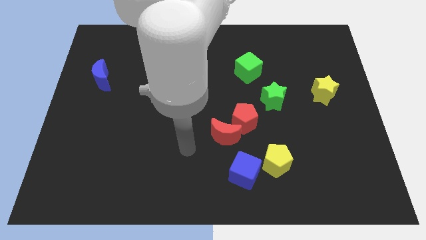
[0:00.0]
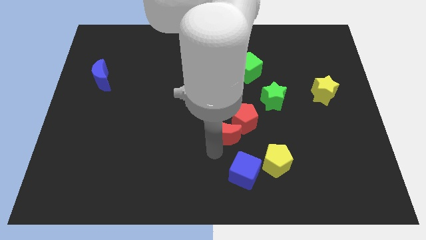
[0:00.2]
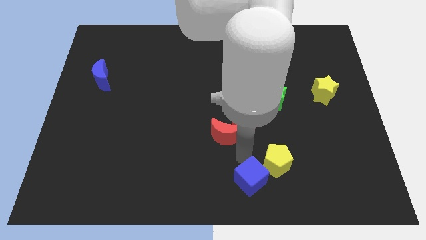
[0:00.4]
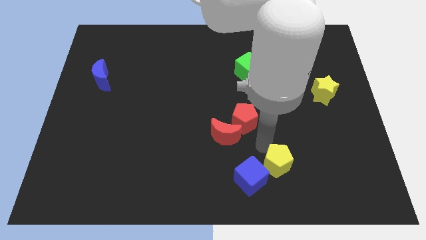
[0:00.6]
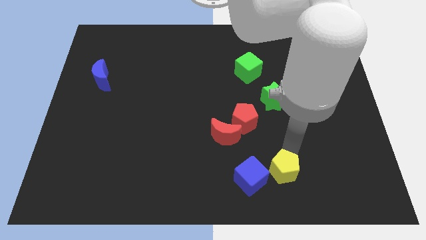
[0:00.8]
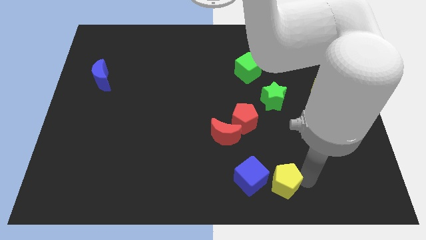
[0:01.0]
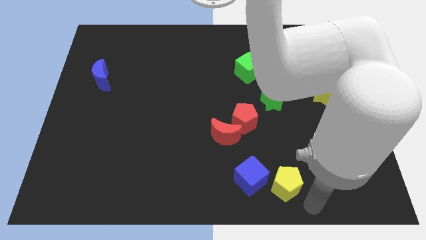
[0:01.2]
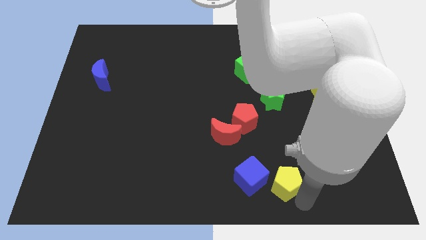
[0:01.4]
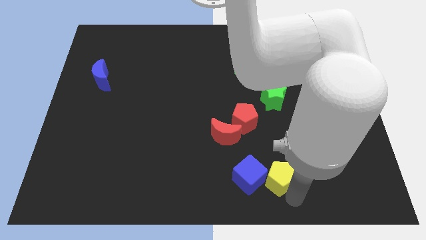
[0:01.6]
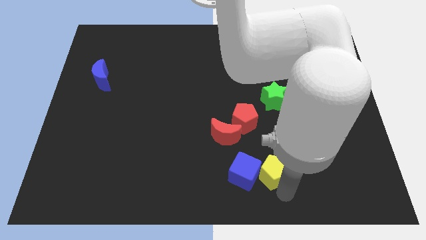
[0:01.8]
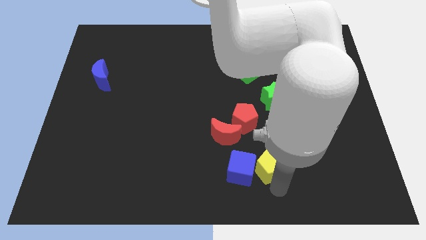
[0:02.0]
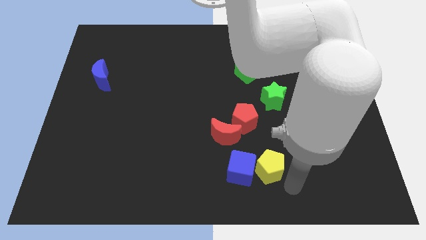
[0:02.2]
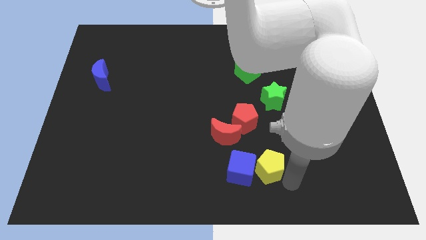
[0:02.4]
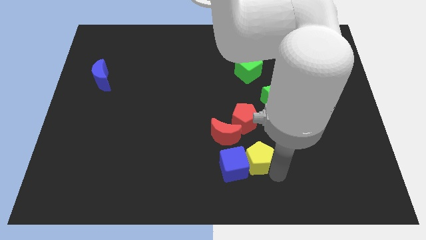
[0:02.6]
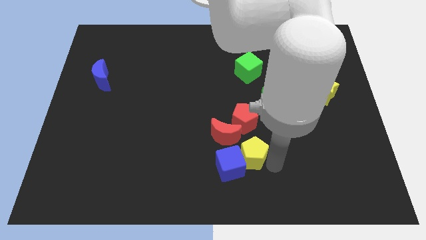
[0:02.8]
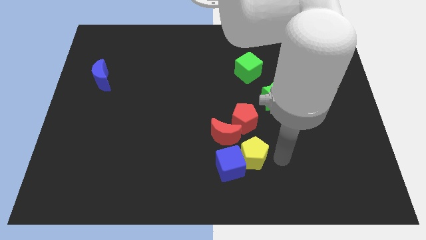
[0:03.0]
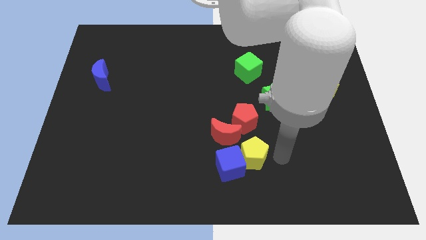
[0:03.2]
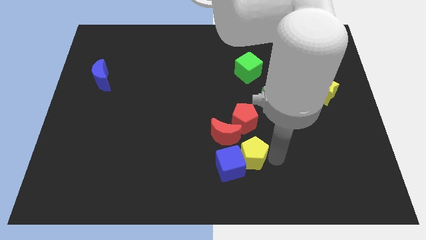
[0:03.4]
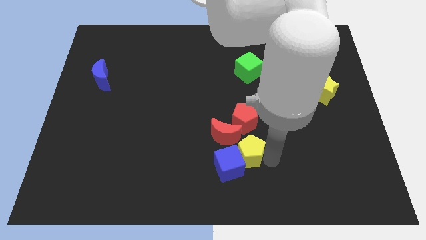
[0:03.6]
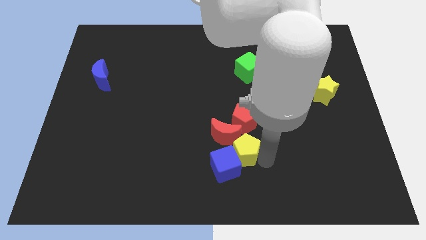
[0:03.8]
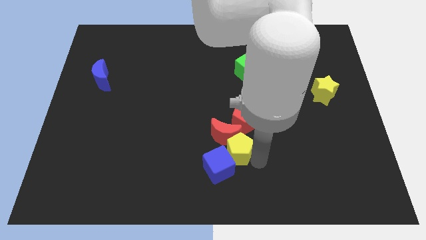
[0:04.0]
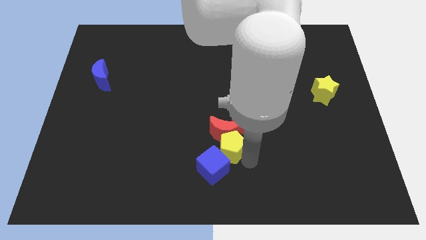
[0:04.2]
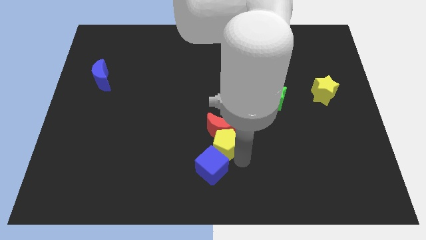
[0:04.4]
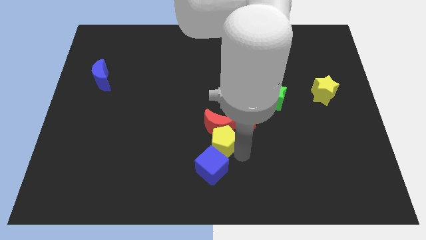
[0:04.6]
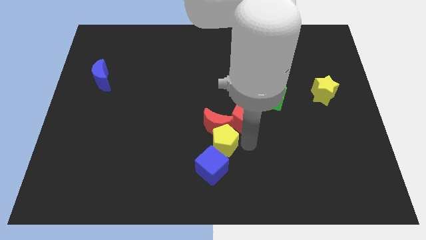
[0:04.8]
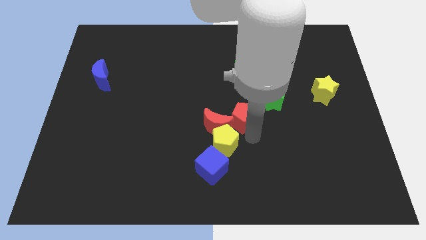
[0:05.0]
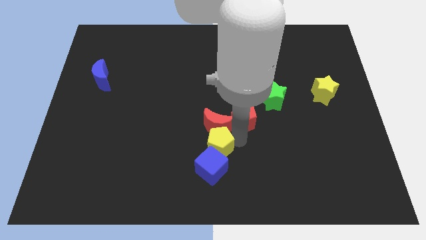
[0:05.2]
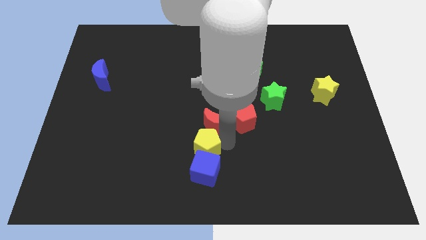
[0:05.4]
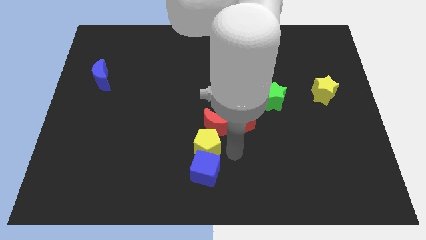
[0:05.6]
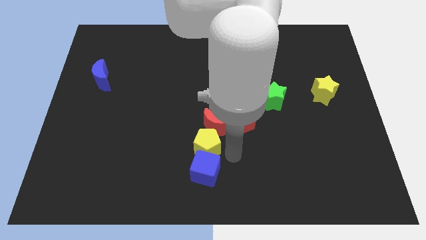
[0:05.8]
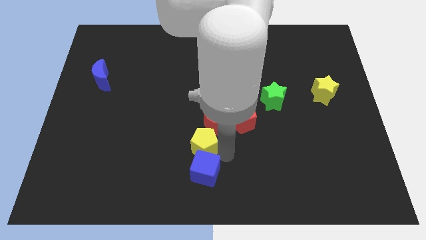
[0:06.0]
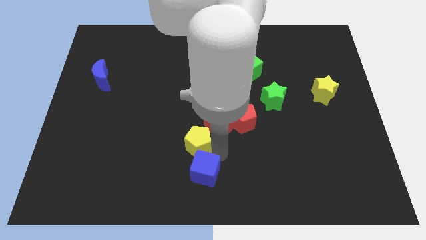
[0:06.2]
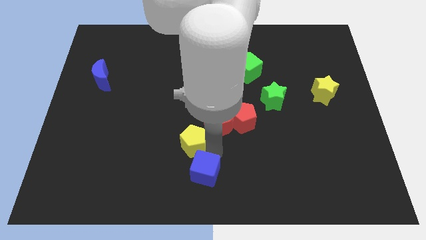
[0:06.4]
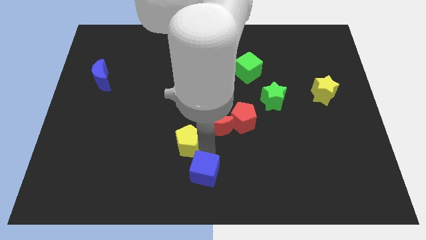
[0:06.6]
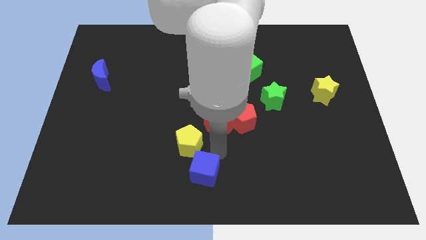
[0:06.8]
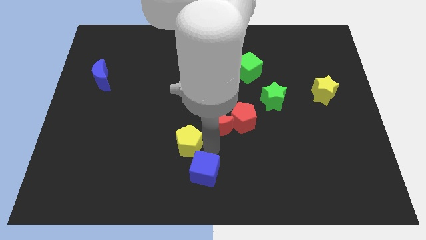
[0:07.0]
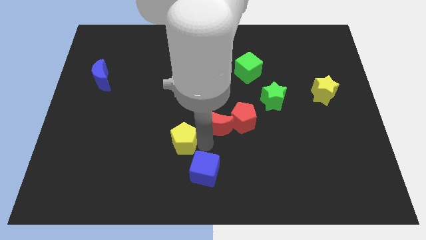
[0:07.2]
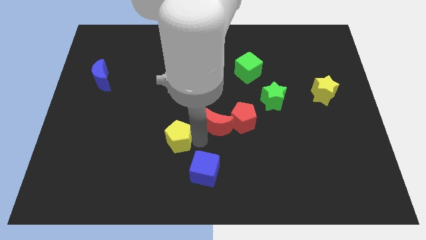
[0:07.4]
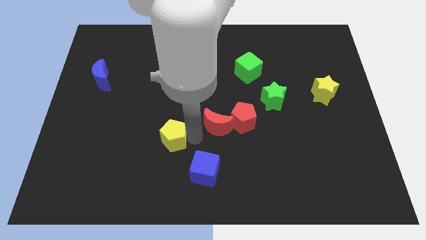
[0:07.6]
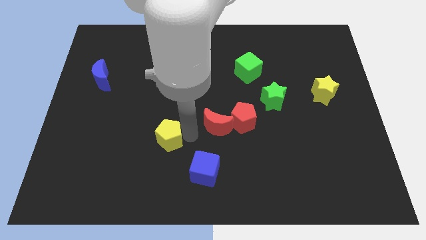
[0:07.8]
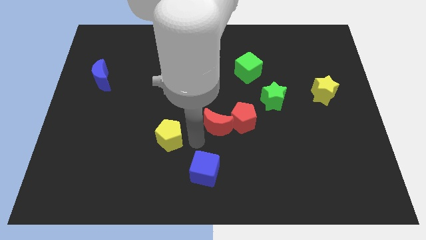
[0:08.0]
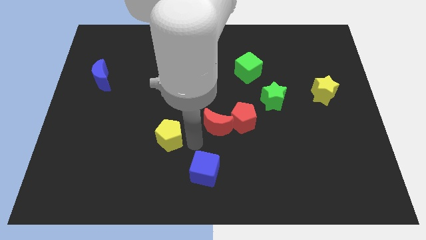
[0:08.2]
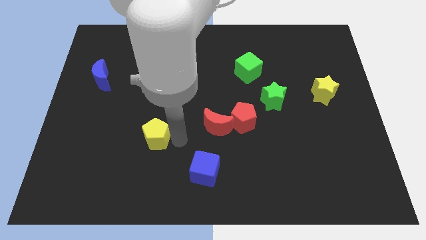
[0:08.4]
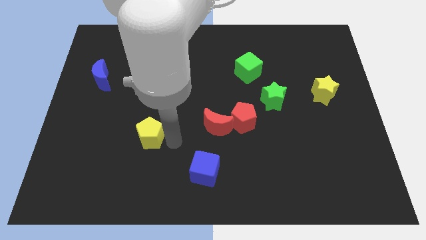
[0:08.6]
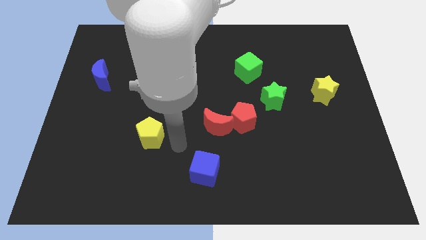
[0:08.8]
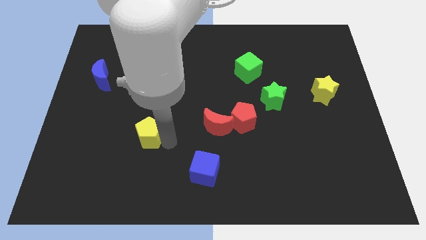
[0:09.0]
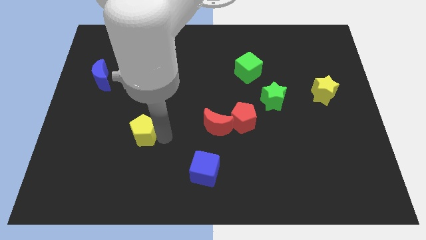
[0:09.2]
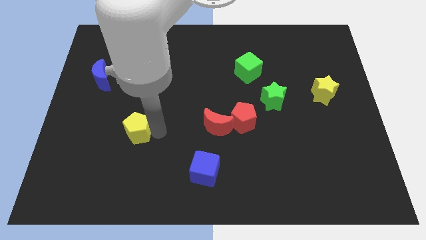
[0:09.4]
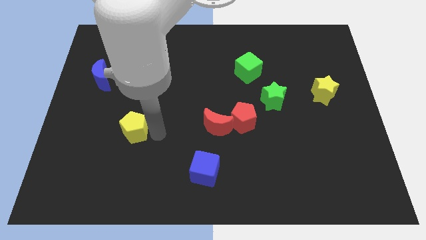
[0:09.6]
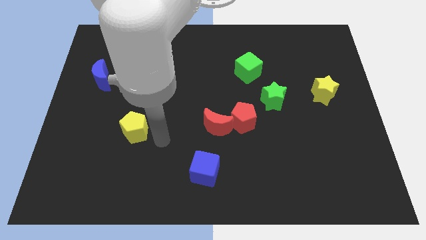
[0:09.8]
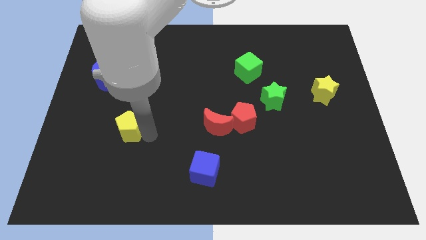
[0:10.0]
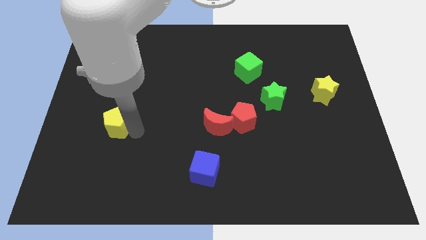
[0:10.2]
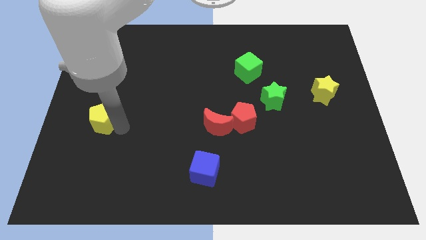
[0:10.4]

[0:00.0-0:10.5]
put the yellow pentagon to the bottom of the blue moon

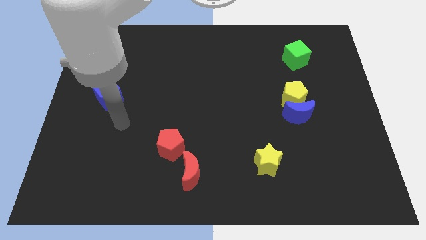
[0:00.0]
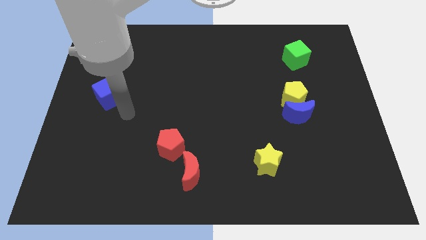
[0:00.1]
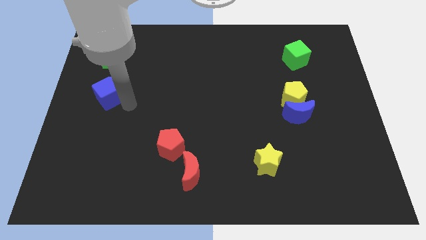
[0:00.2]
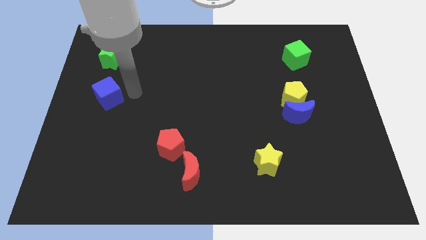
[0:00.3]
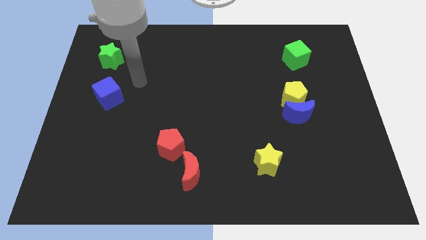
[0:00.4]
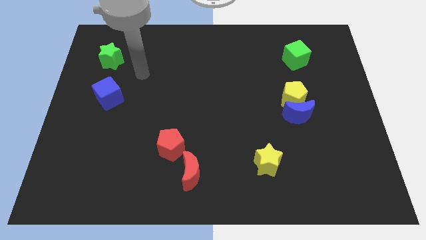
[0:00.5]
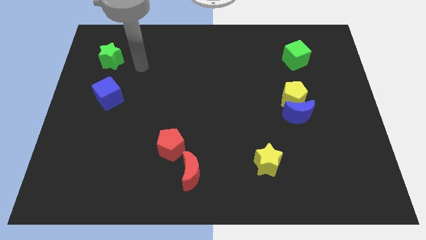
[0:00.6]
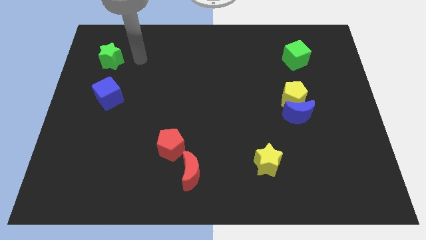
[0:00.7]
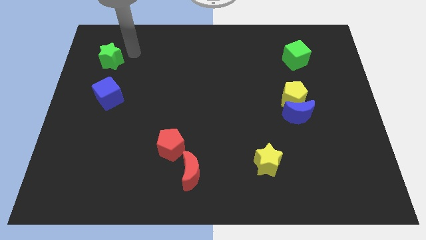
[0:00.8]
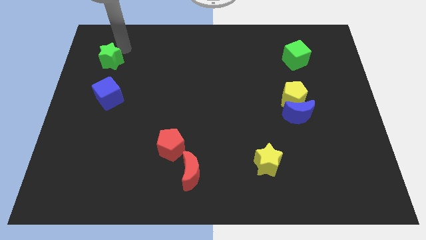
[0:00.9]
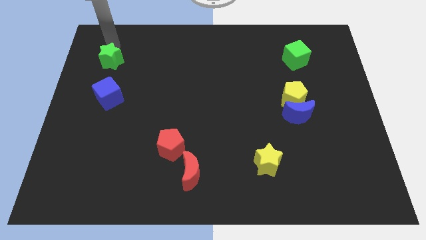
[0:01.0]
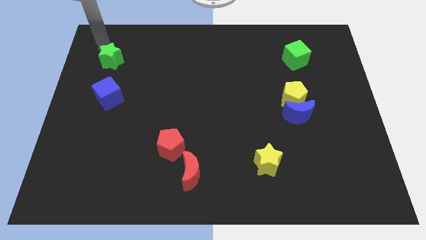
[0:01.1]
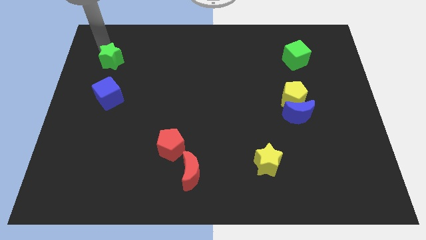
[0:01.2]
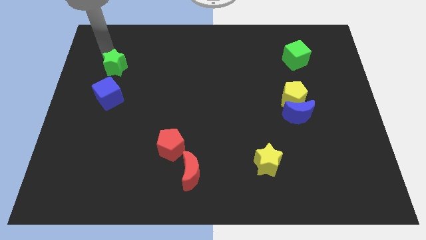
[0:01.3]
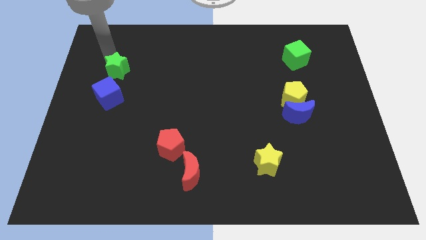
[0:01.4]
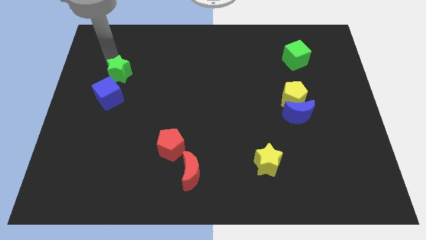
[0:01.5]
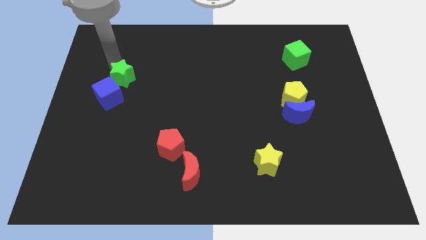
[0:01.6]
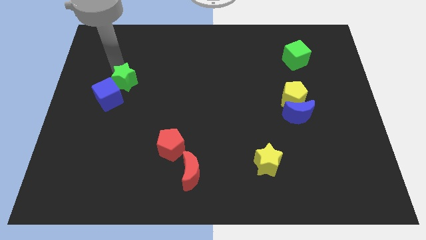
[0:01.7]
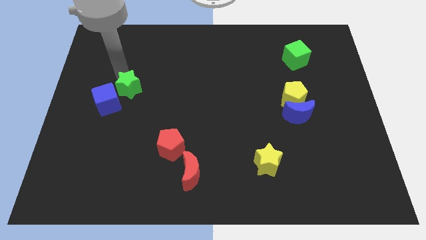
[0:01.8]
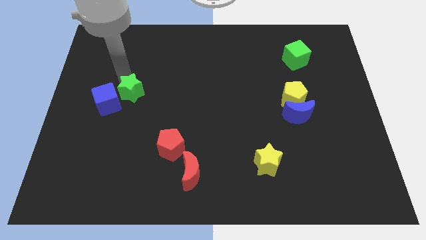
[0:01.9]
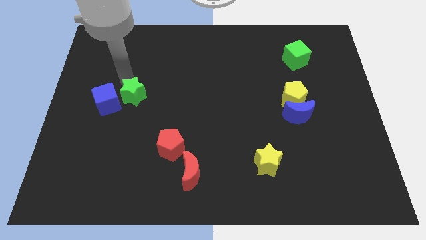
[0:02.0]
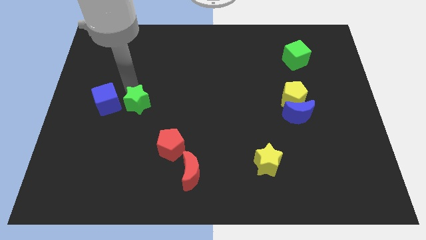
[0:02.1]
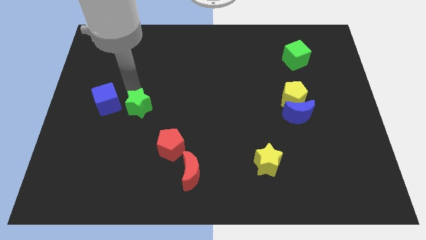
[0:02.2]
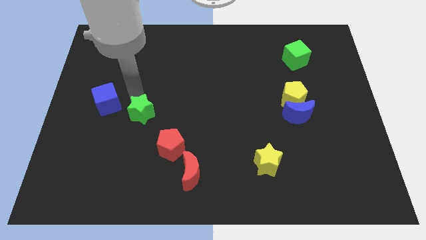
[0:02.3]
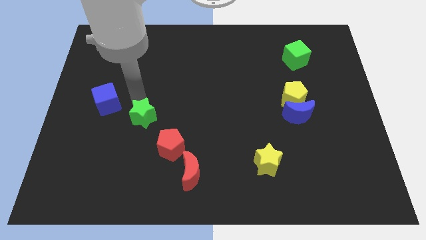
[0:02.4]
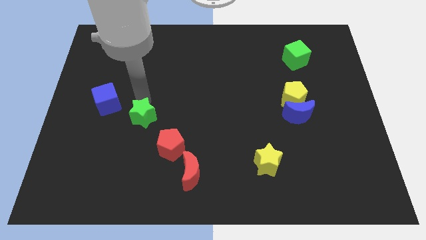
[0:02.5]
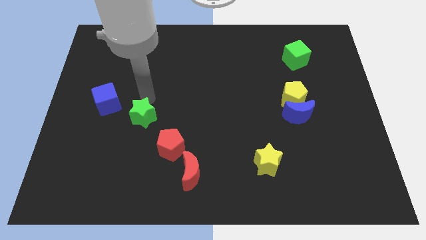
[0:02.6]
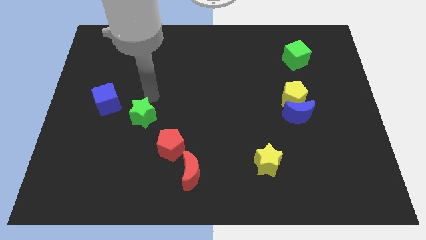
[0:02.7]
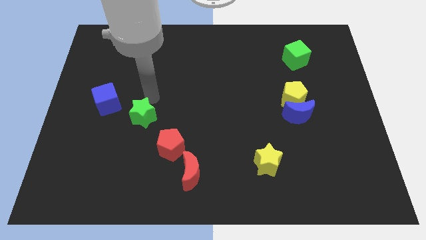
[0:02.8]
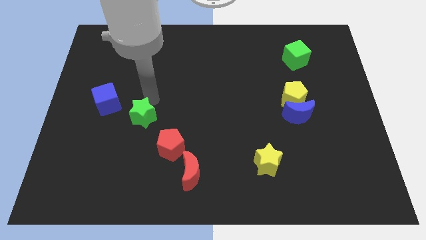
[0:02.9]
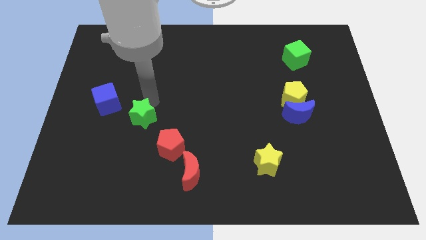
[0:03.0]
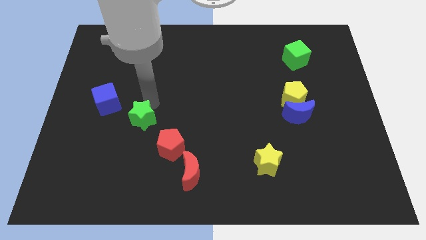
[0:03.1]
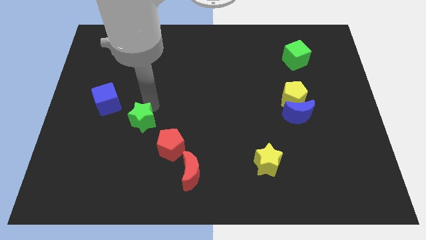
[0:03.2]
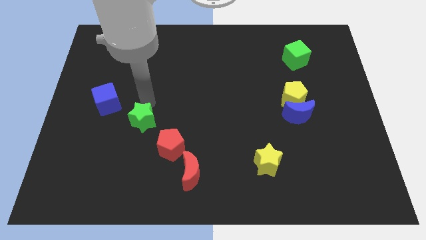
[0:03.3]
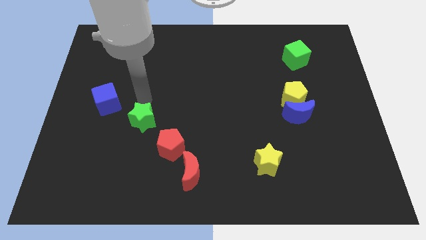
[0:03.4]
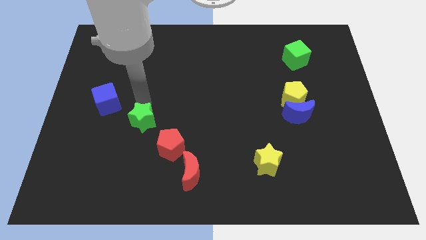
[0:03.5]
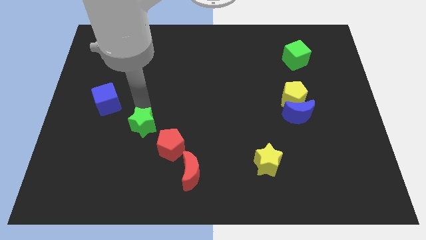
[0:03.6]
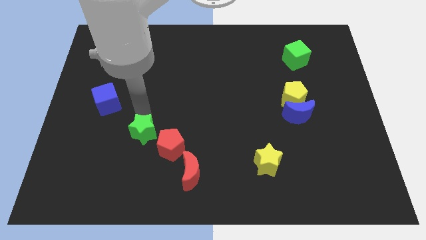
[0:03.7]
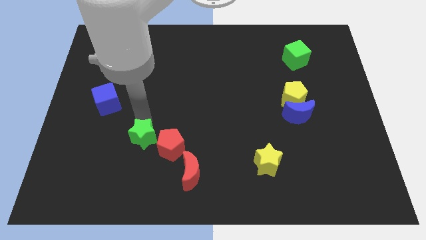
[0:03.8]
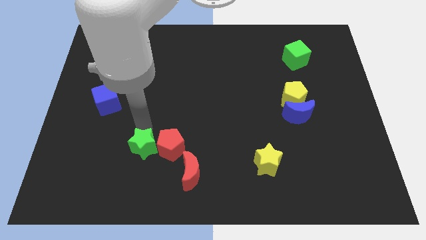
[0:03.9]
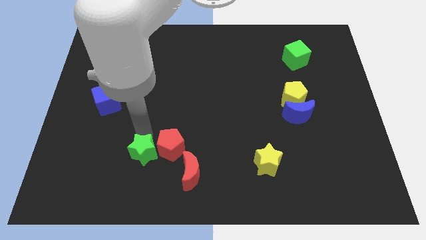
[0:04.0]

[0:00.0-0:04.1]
move the green star left of the red moon
